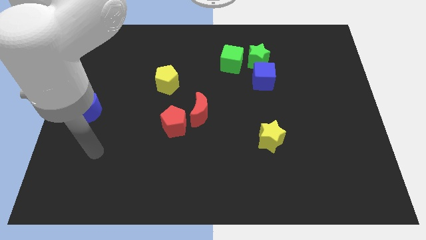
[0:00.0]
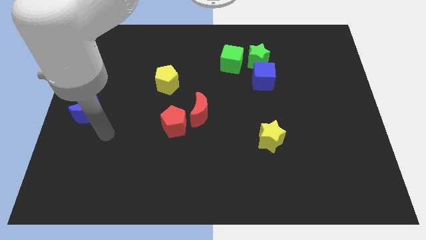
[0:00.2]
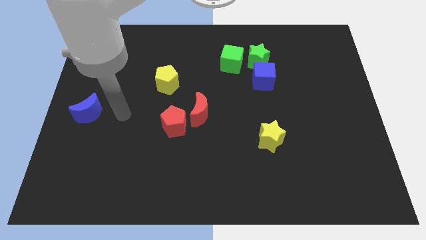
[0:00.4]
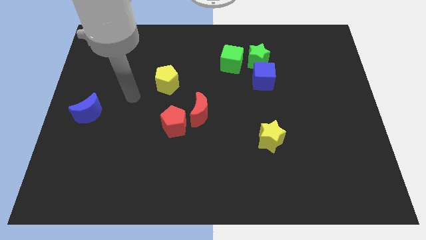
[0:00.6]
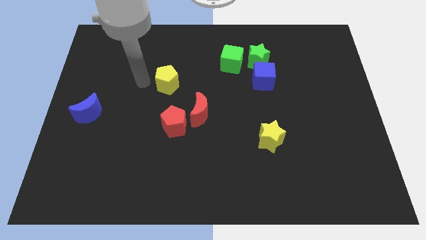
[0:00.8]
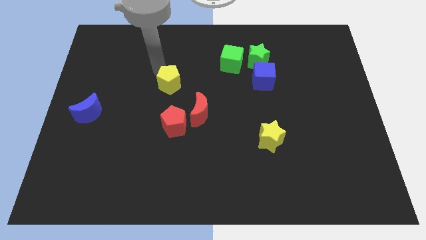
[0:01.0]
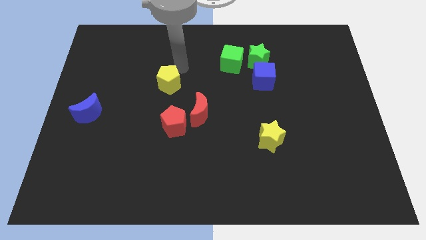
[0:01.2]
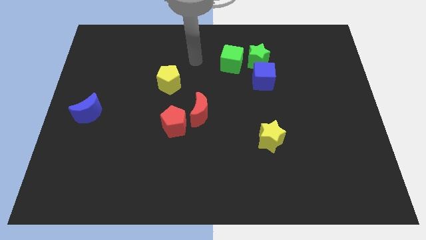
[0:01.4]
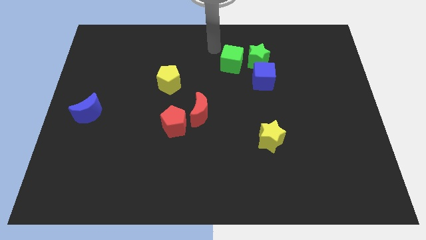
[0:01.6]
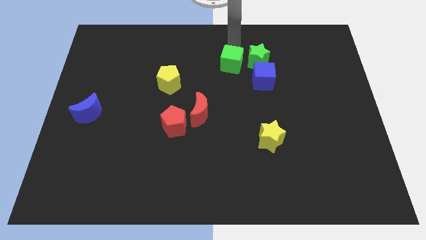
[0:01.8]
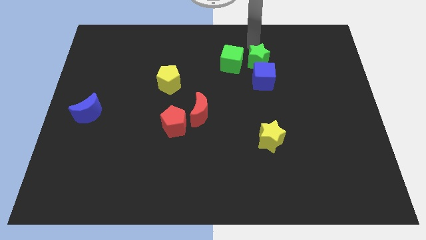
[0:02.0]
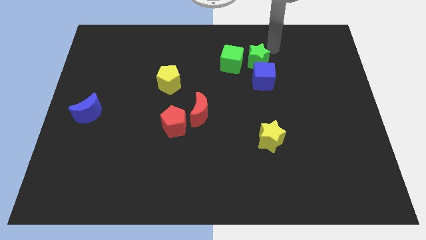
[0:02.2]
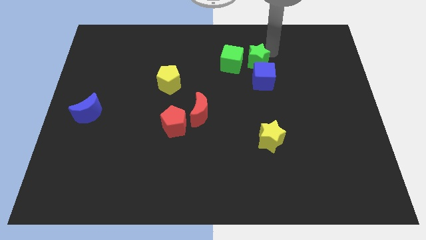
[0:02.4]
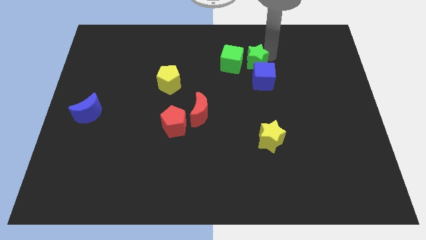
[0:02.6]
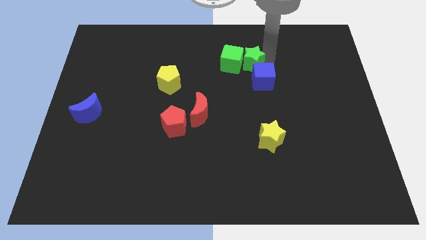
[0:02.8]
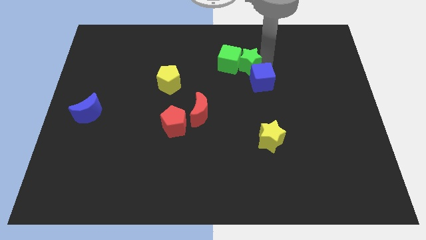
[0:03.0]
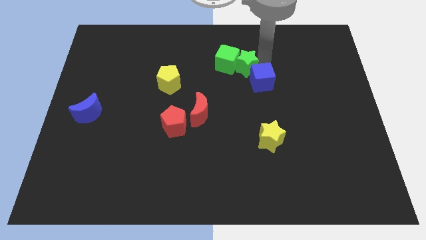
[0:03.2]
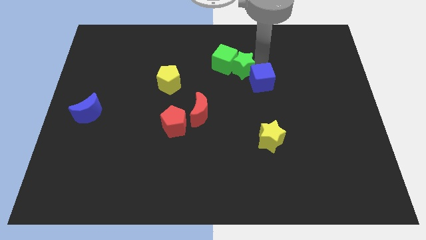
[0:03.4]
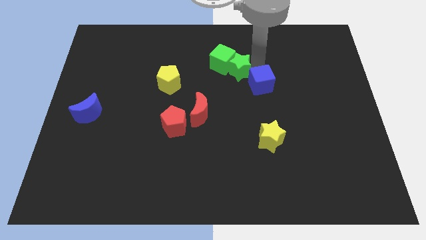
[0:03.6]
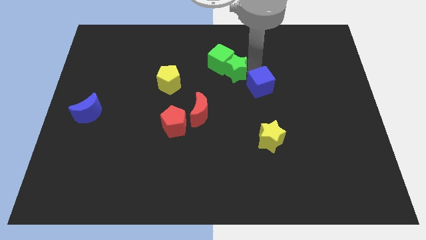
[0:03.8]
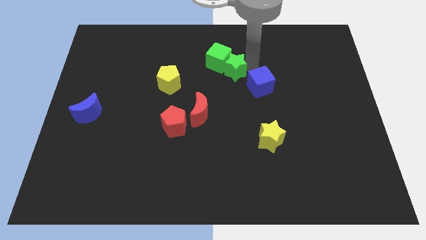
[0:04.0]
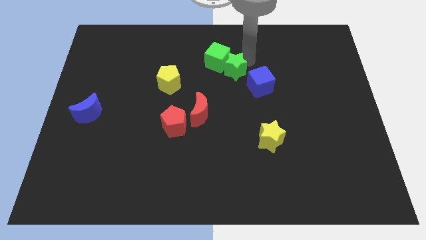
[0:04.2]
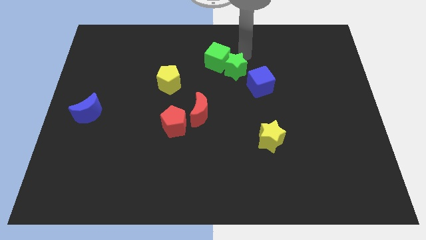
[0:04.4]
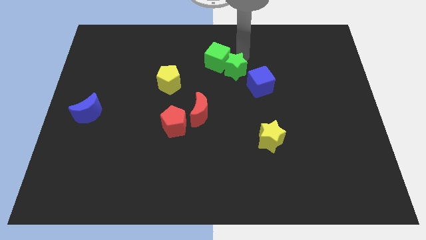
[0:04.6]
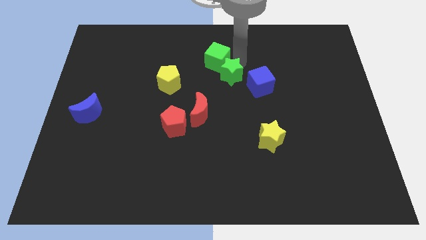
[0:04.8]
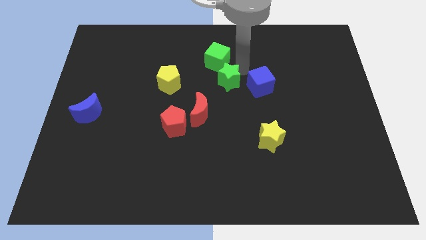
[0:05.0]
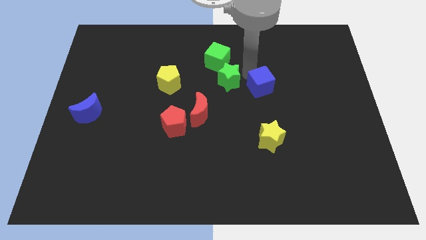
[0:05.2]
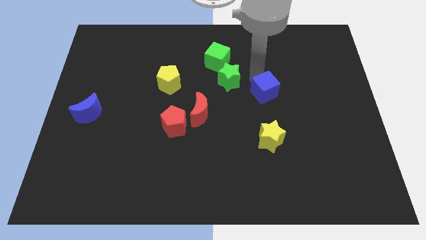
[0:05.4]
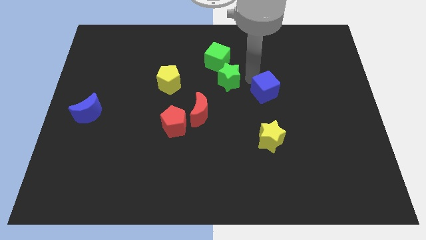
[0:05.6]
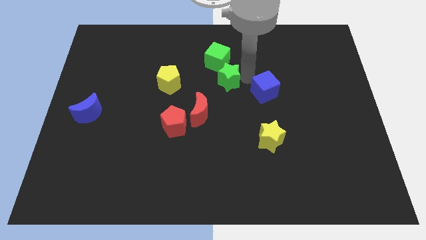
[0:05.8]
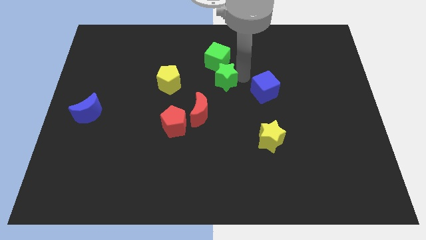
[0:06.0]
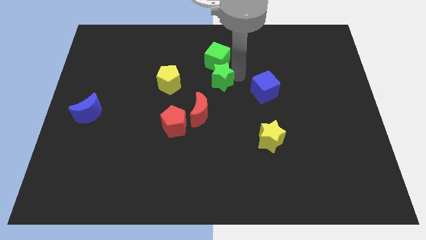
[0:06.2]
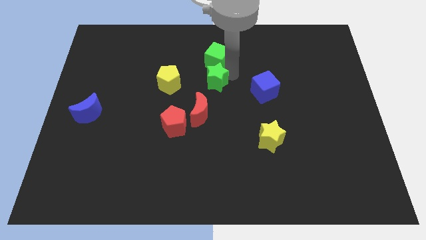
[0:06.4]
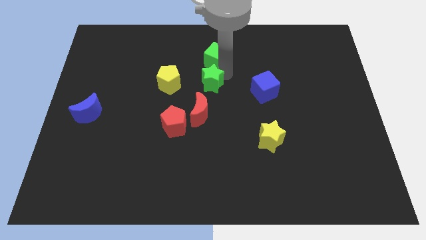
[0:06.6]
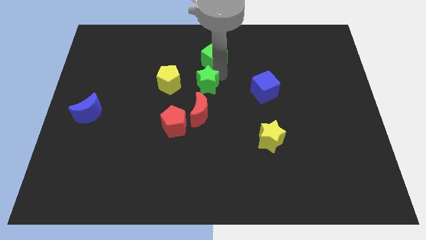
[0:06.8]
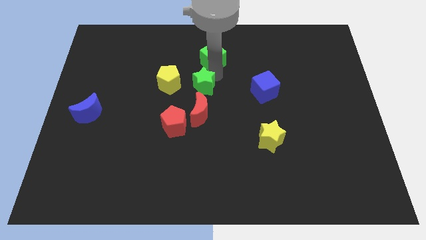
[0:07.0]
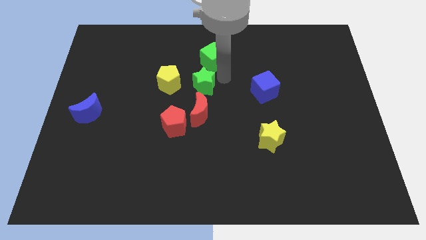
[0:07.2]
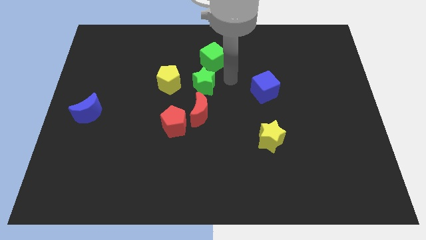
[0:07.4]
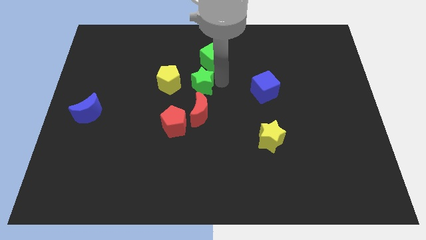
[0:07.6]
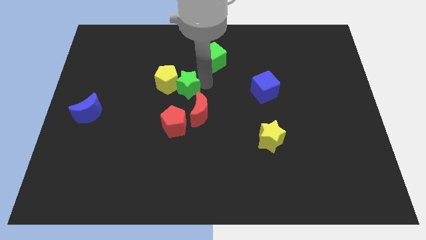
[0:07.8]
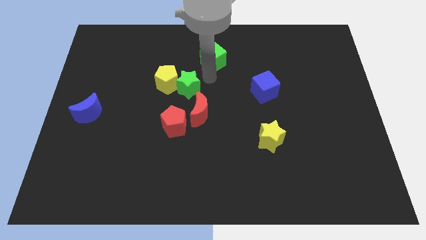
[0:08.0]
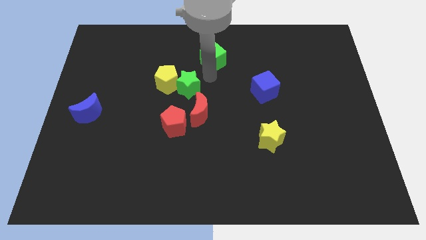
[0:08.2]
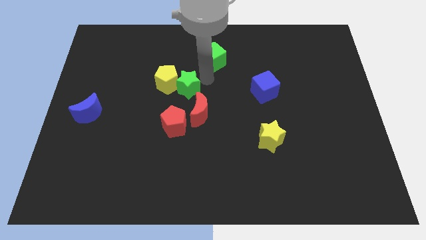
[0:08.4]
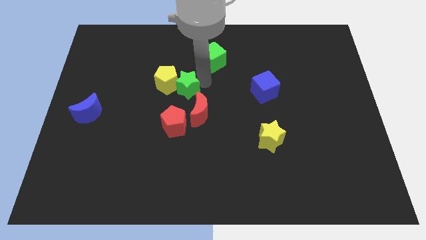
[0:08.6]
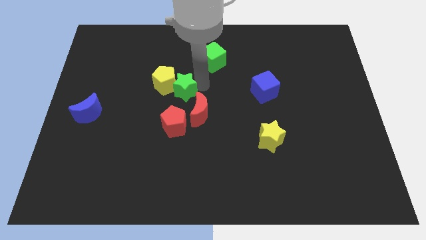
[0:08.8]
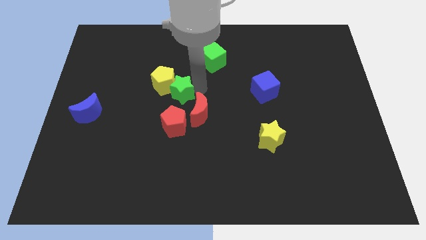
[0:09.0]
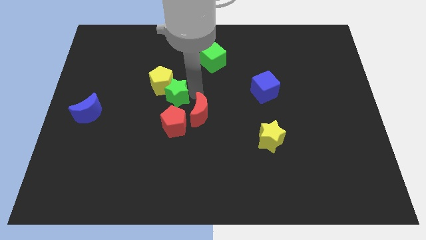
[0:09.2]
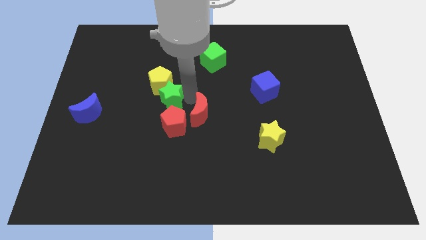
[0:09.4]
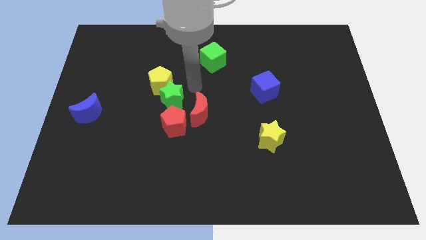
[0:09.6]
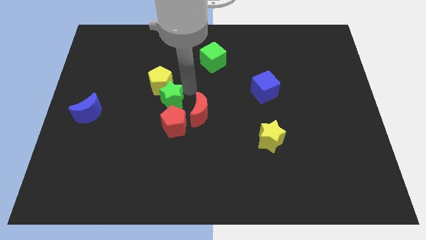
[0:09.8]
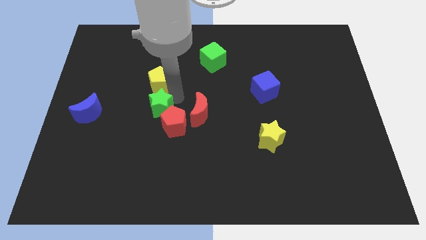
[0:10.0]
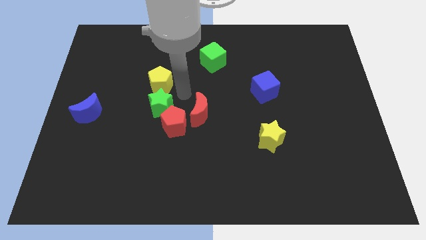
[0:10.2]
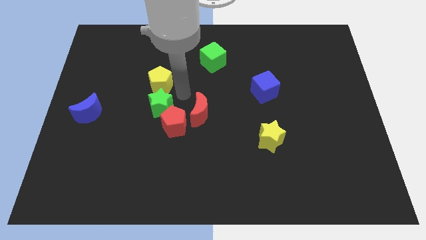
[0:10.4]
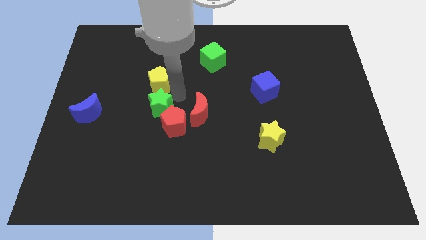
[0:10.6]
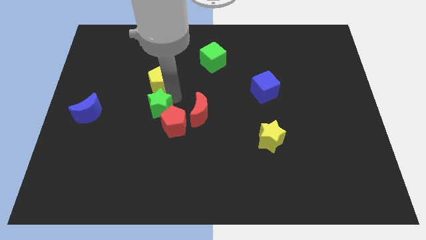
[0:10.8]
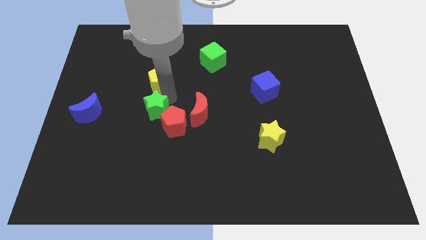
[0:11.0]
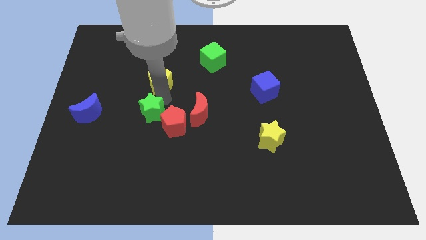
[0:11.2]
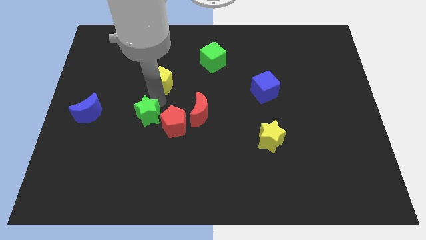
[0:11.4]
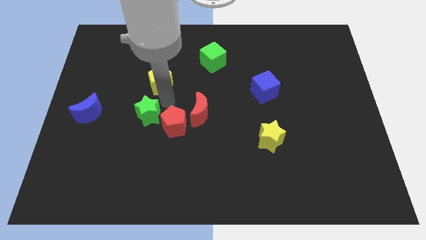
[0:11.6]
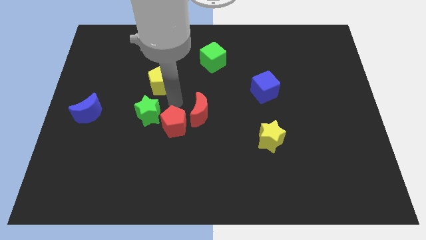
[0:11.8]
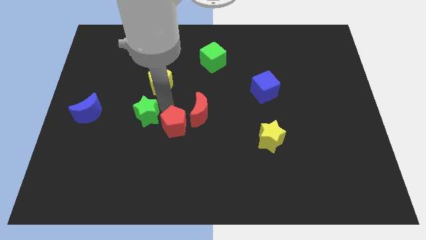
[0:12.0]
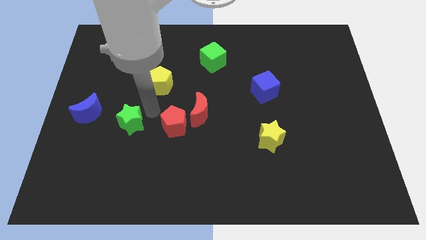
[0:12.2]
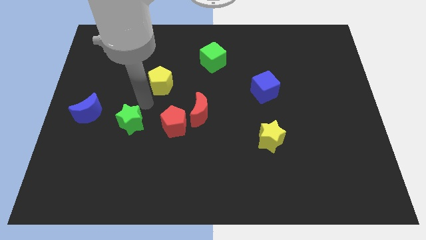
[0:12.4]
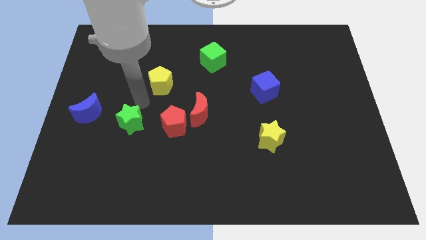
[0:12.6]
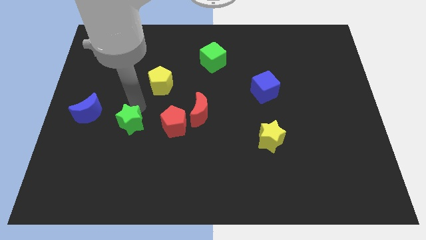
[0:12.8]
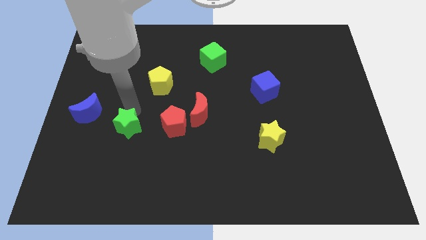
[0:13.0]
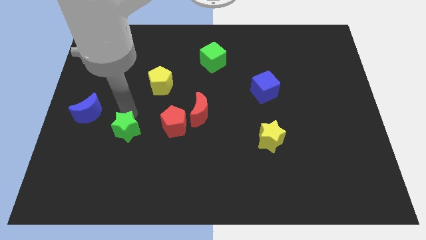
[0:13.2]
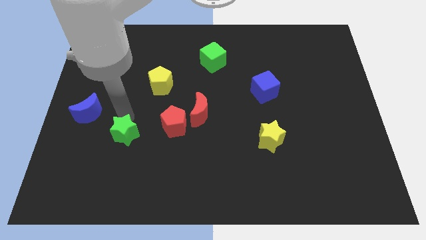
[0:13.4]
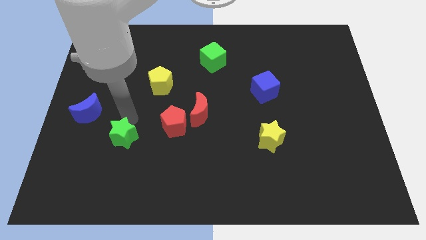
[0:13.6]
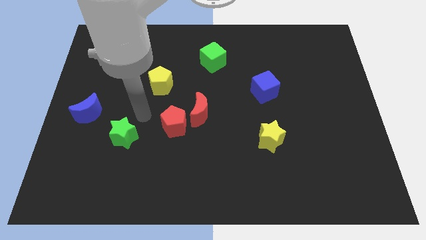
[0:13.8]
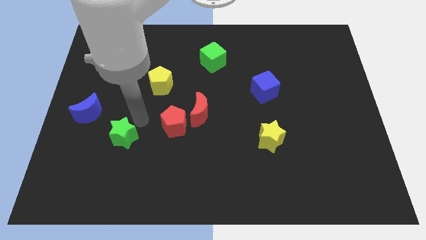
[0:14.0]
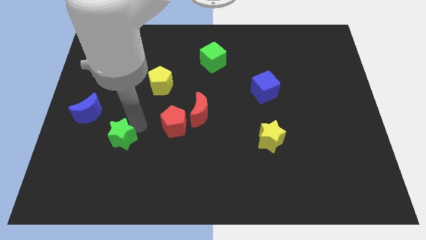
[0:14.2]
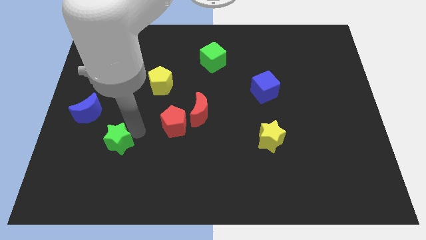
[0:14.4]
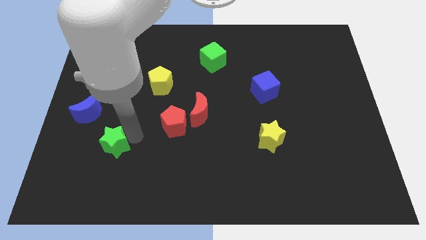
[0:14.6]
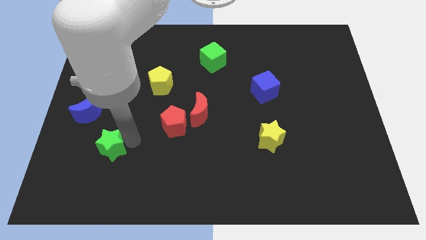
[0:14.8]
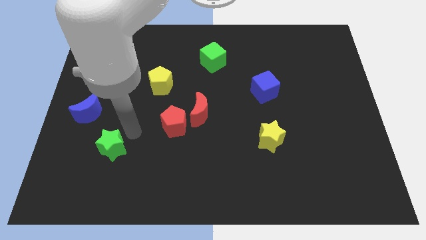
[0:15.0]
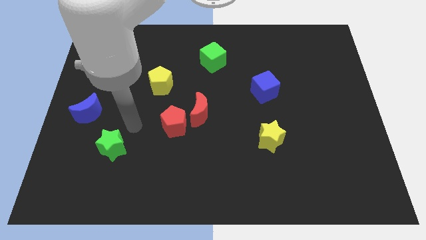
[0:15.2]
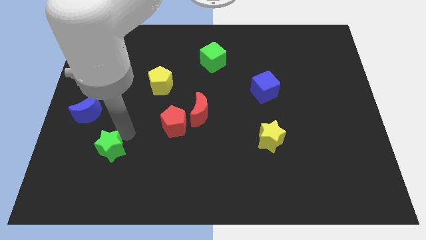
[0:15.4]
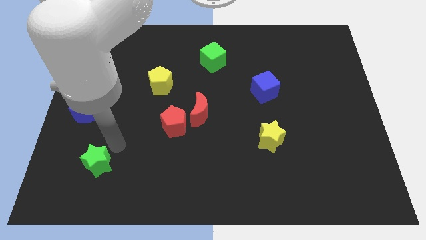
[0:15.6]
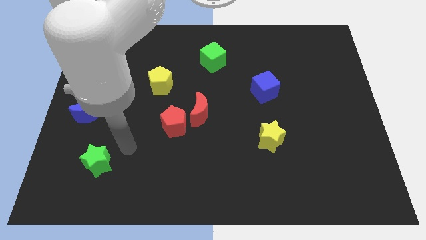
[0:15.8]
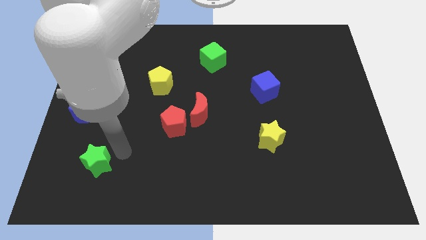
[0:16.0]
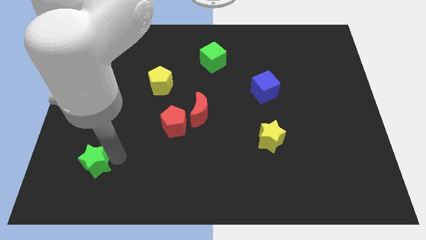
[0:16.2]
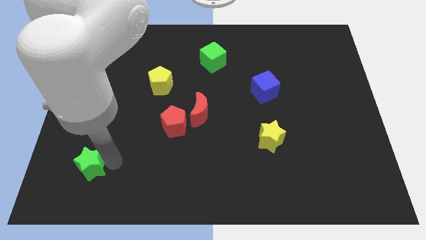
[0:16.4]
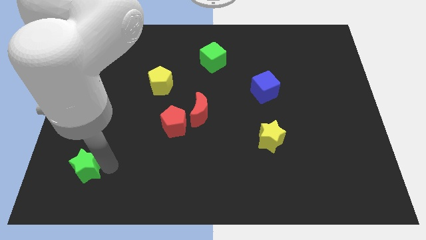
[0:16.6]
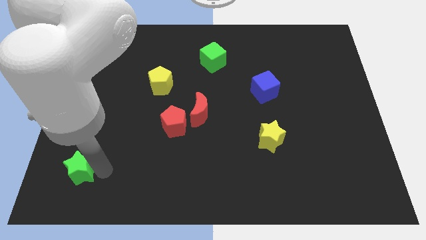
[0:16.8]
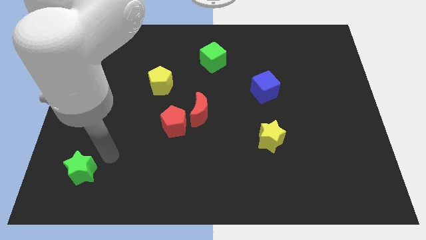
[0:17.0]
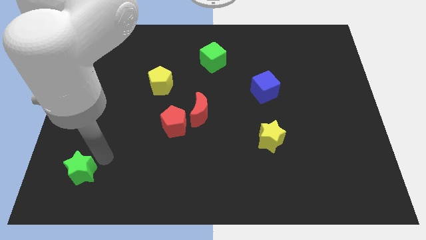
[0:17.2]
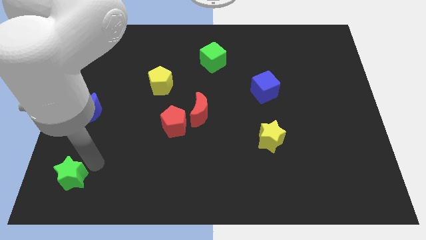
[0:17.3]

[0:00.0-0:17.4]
move the green star to the bottom left
